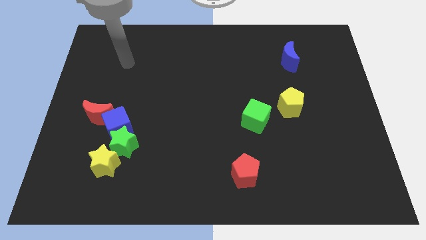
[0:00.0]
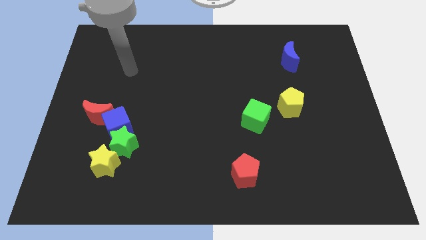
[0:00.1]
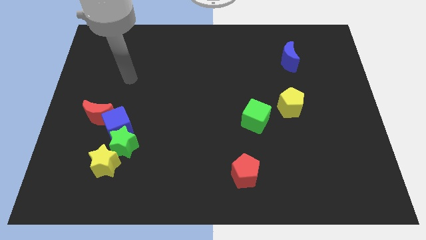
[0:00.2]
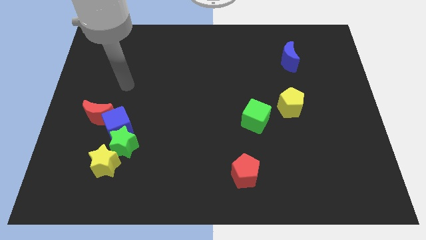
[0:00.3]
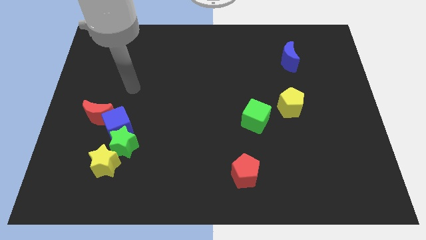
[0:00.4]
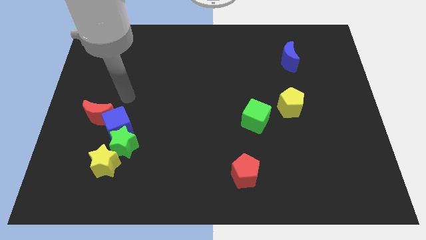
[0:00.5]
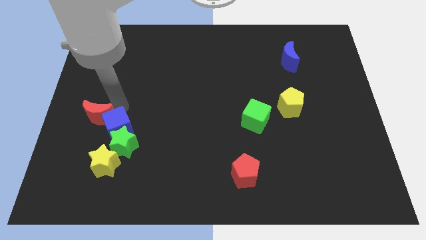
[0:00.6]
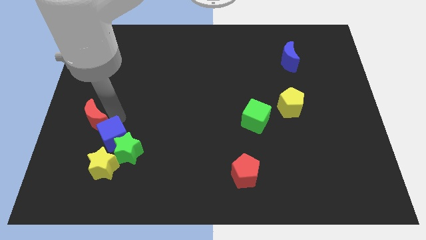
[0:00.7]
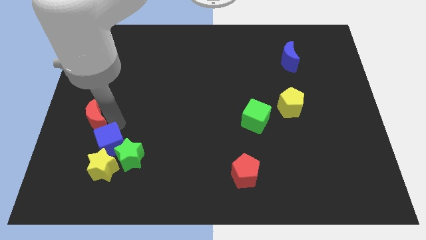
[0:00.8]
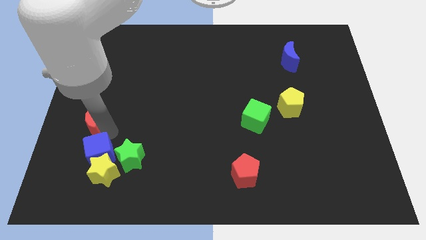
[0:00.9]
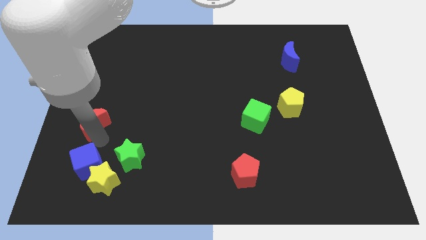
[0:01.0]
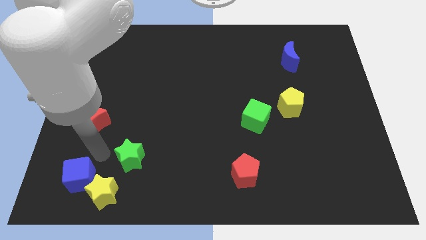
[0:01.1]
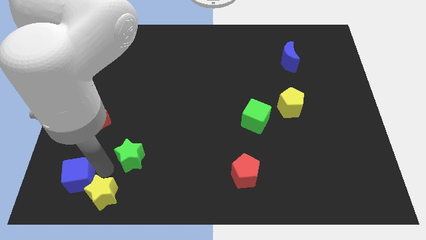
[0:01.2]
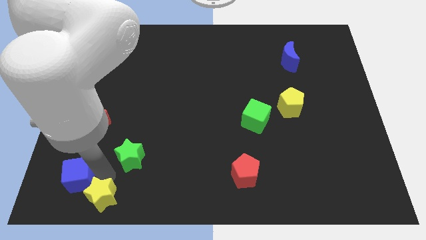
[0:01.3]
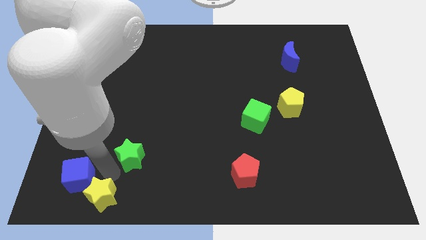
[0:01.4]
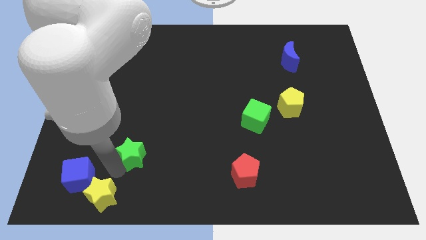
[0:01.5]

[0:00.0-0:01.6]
separate the green star from the blue cube and yellow star

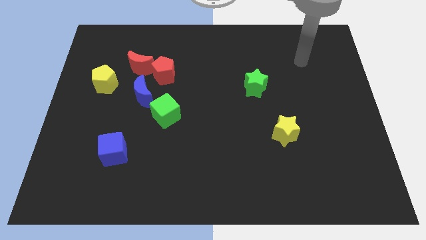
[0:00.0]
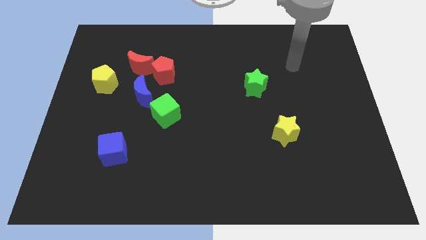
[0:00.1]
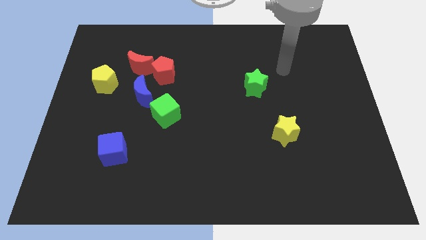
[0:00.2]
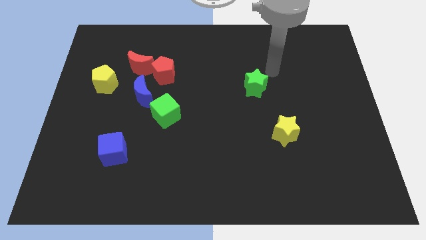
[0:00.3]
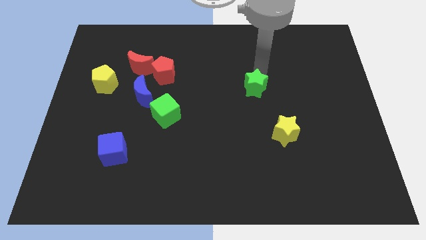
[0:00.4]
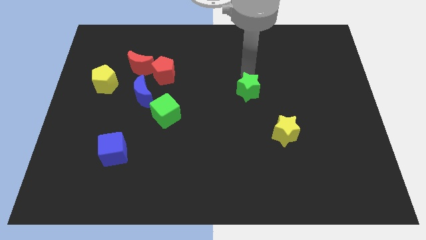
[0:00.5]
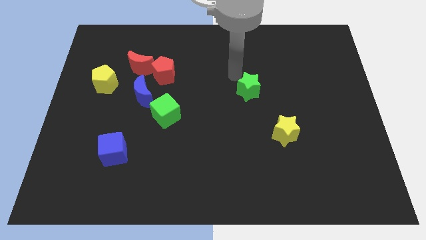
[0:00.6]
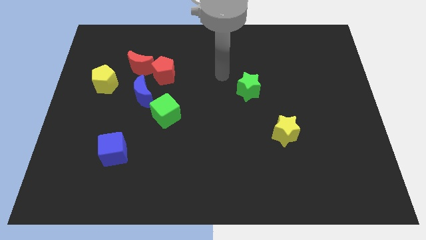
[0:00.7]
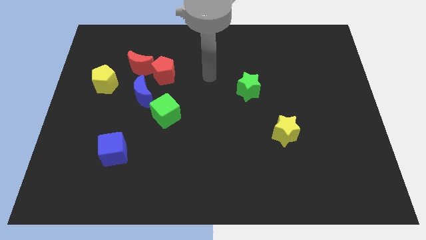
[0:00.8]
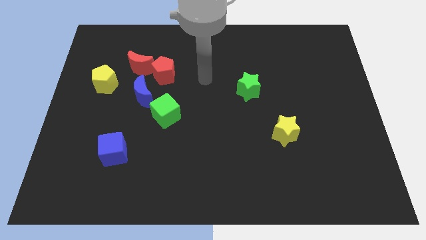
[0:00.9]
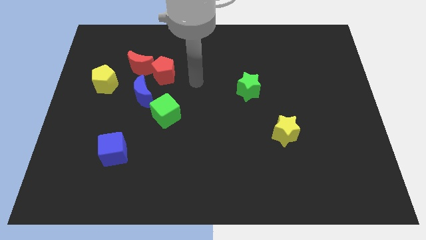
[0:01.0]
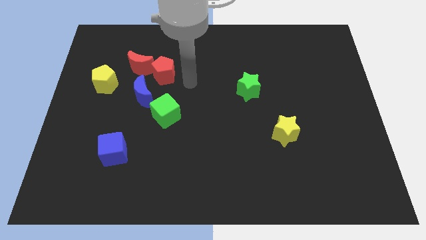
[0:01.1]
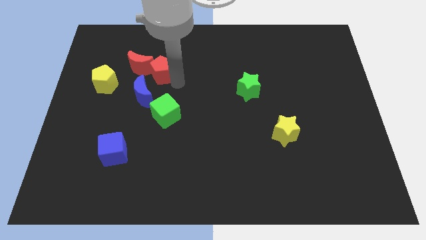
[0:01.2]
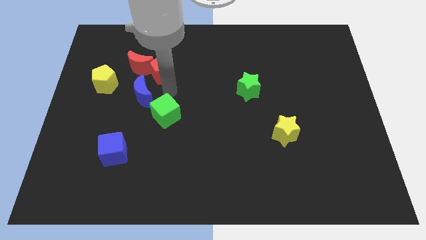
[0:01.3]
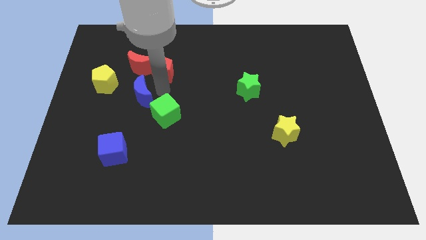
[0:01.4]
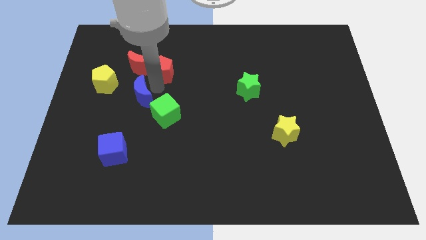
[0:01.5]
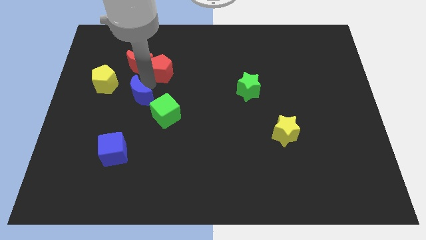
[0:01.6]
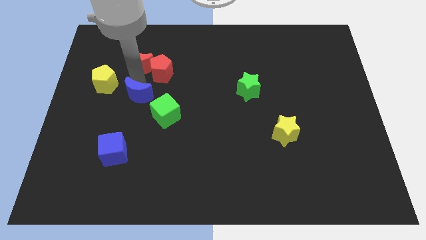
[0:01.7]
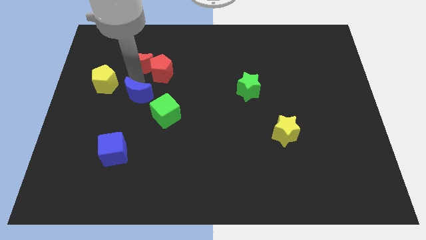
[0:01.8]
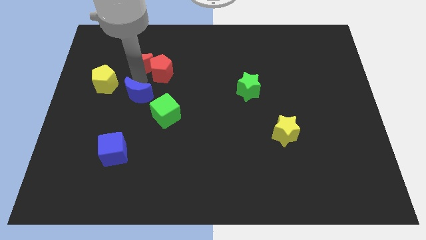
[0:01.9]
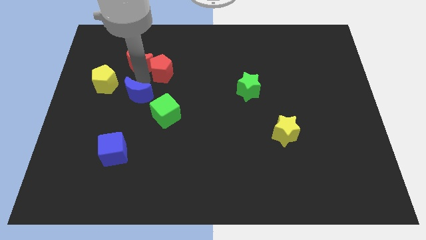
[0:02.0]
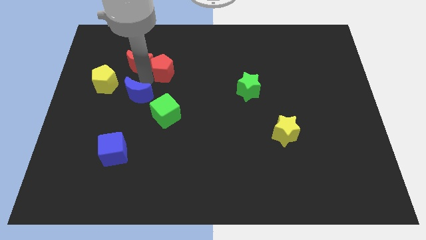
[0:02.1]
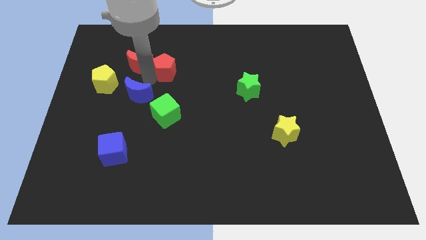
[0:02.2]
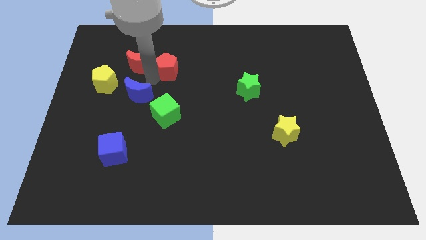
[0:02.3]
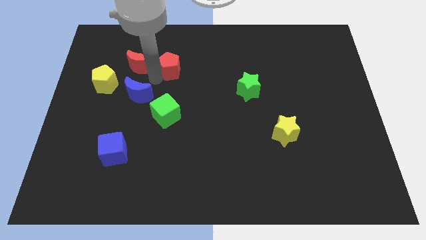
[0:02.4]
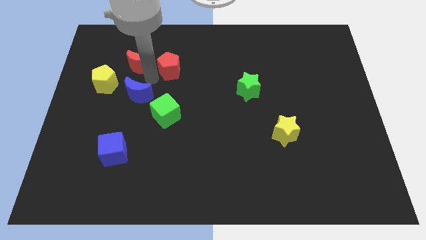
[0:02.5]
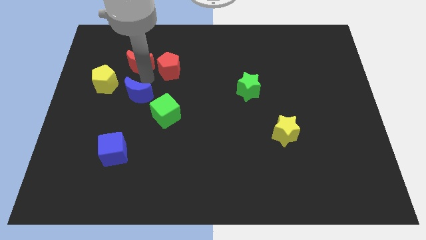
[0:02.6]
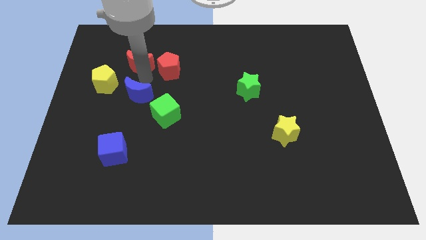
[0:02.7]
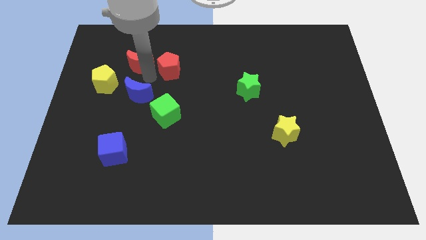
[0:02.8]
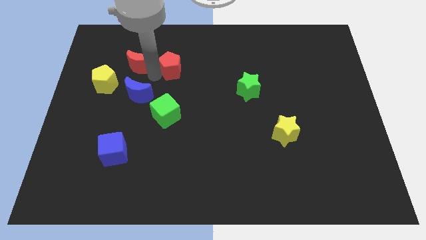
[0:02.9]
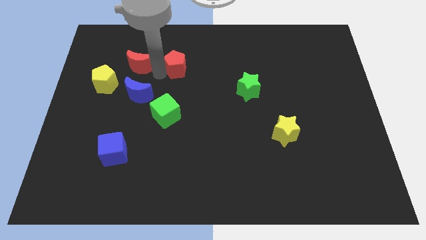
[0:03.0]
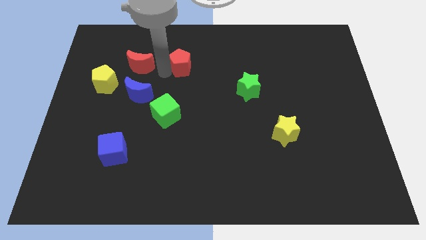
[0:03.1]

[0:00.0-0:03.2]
move the red pentagon away from the red moon and blue moon

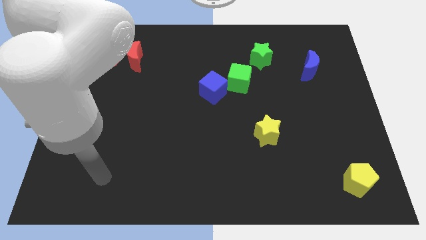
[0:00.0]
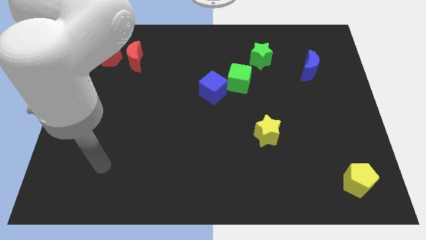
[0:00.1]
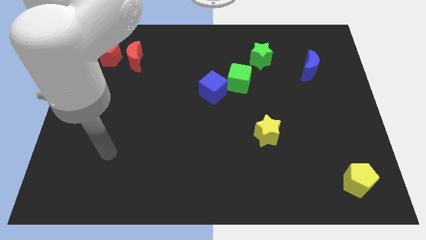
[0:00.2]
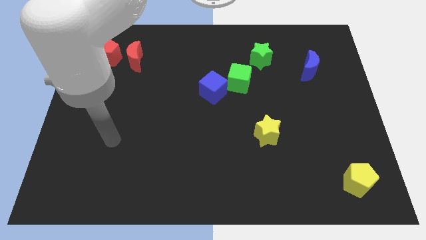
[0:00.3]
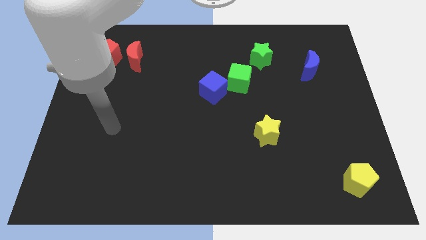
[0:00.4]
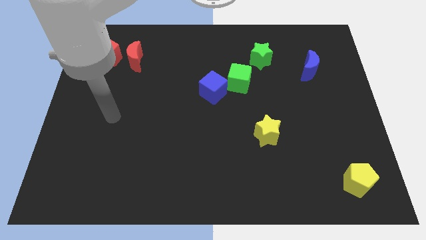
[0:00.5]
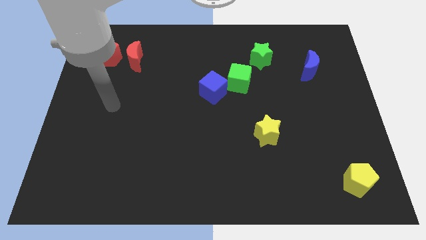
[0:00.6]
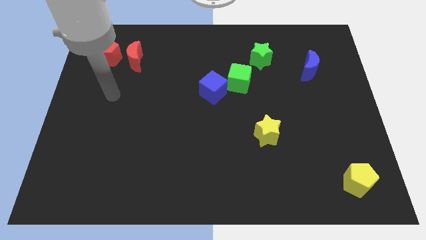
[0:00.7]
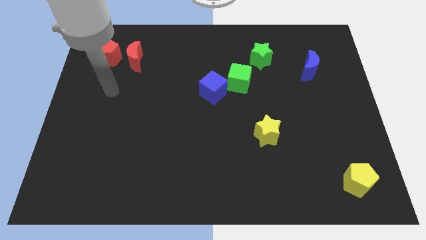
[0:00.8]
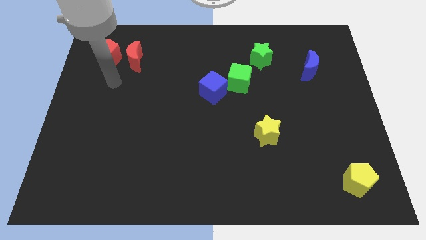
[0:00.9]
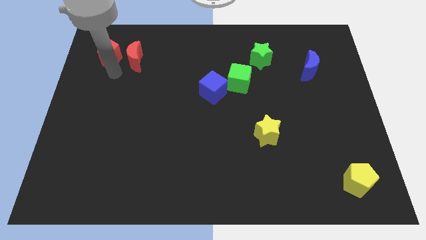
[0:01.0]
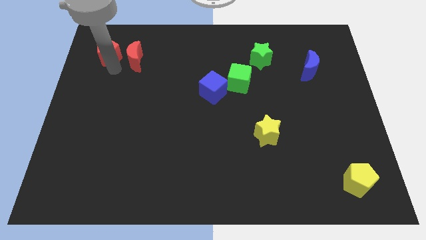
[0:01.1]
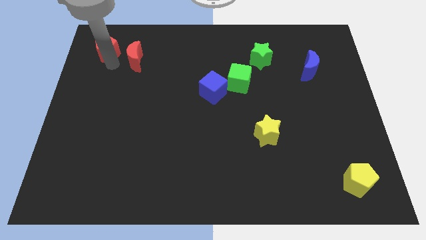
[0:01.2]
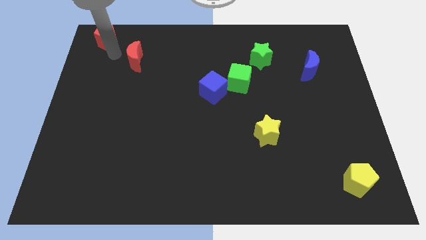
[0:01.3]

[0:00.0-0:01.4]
move the red moon away from the red pentagon

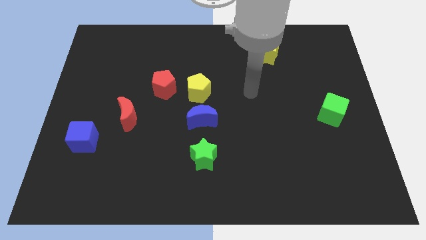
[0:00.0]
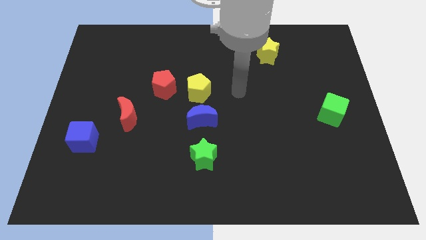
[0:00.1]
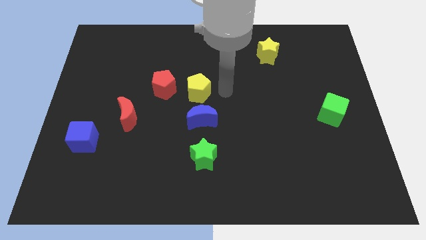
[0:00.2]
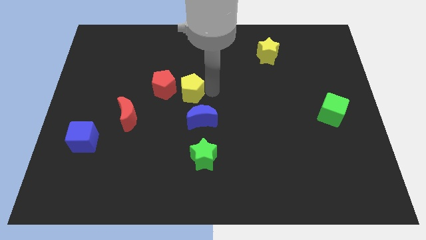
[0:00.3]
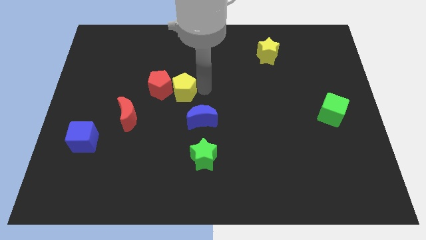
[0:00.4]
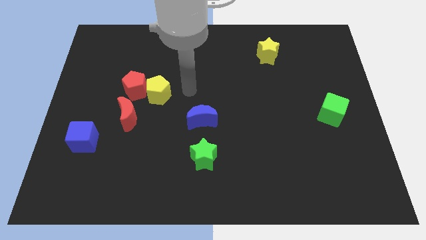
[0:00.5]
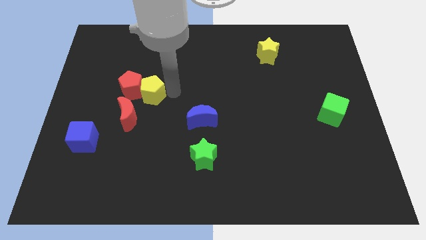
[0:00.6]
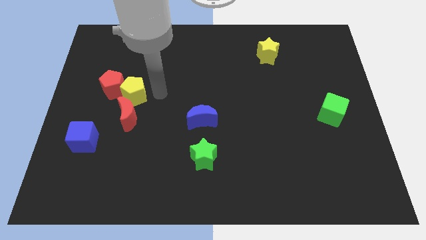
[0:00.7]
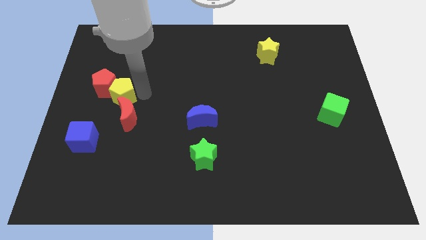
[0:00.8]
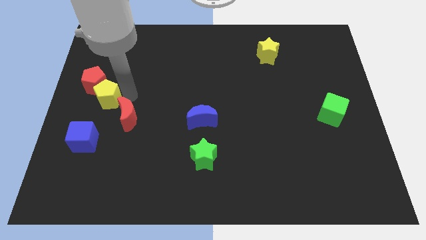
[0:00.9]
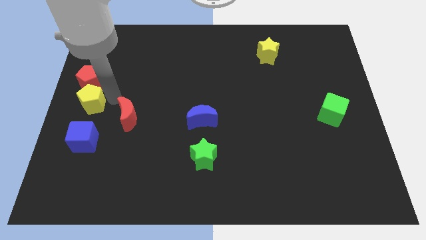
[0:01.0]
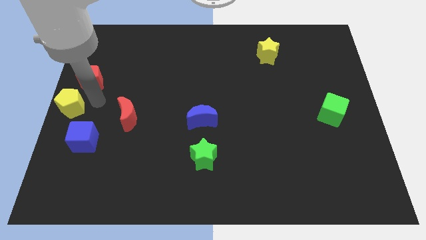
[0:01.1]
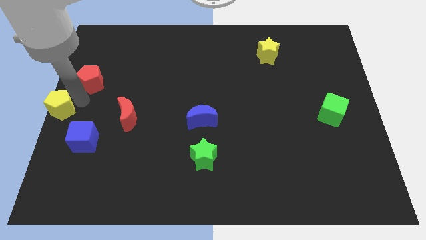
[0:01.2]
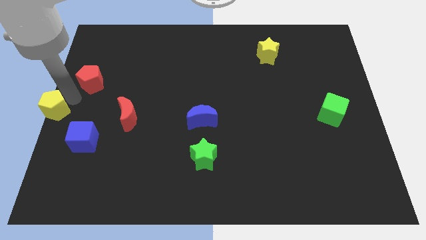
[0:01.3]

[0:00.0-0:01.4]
pull the red pentagon apart from the yellow pentagon

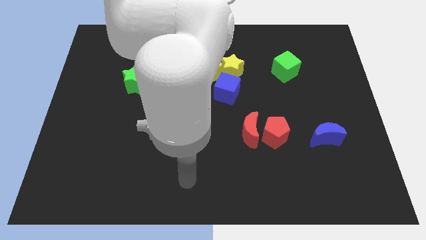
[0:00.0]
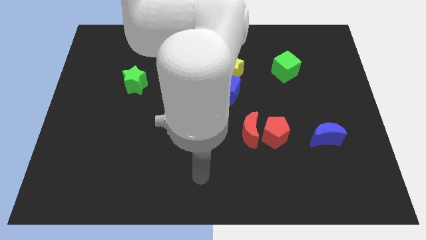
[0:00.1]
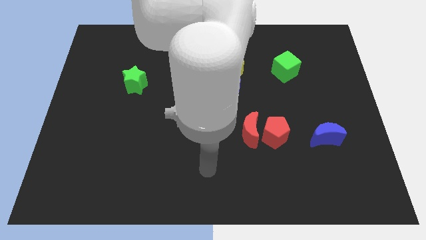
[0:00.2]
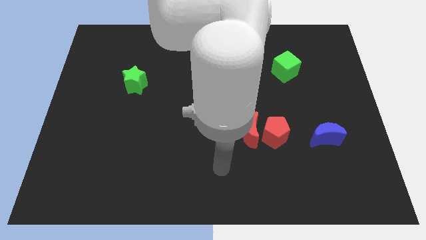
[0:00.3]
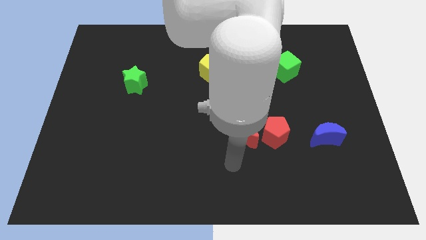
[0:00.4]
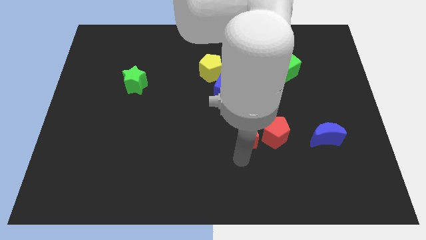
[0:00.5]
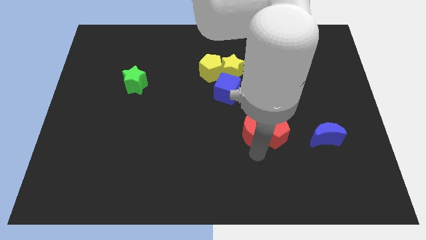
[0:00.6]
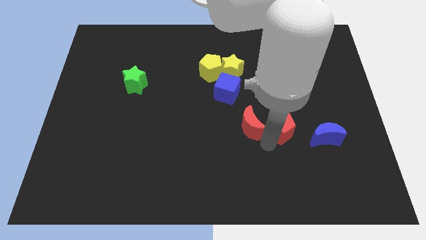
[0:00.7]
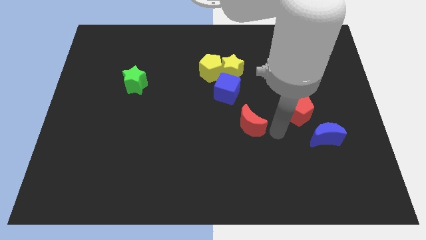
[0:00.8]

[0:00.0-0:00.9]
separate the red moon from the red pentagon

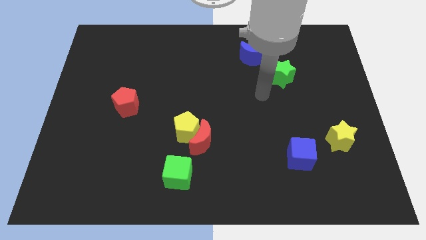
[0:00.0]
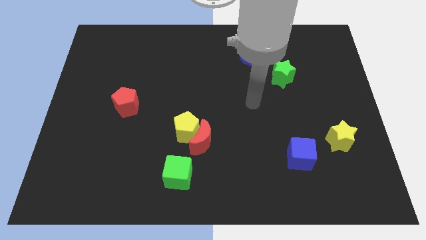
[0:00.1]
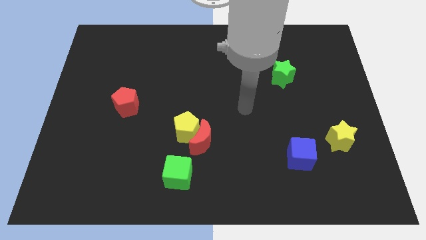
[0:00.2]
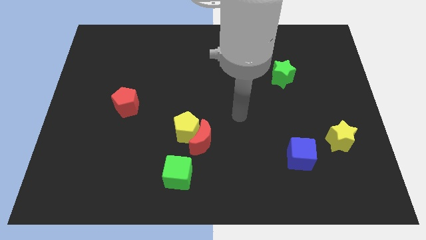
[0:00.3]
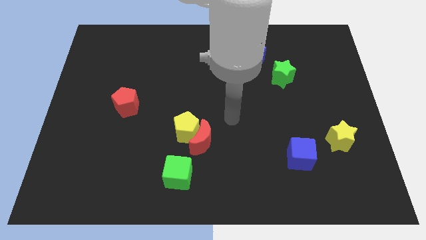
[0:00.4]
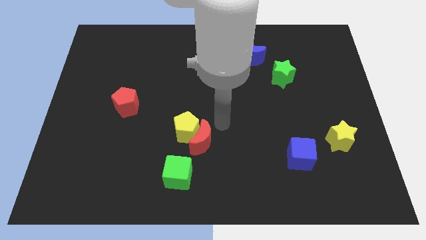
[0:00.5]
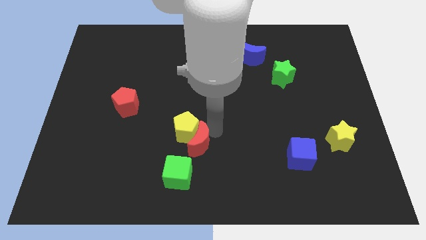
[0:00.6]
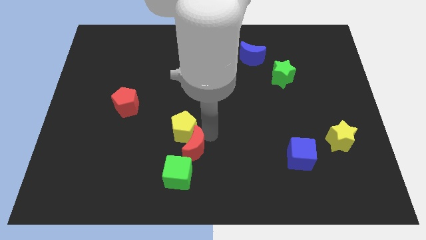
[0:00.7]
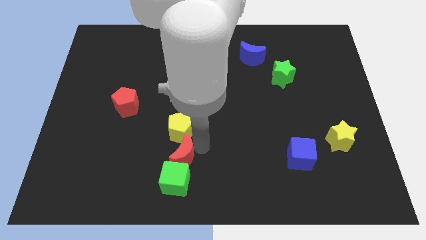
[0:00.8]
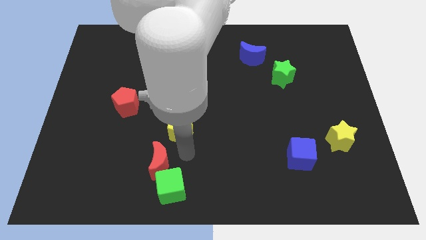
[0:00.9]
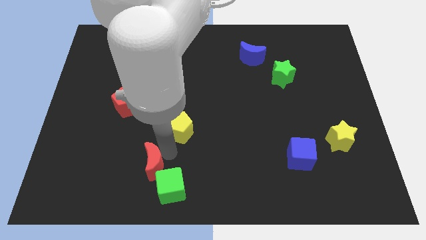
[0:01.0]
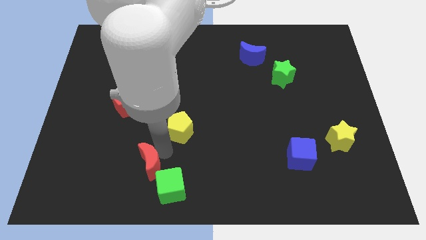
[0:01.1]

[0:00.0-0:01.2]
move the yellow pentagon away from the red moon
